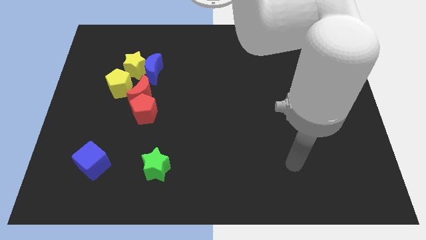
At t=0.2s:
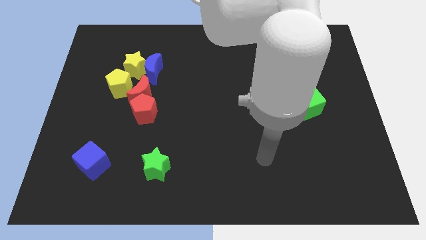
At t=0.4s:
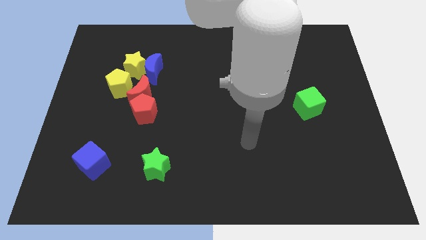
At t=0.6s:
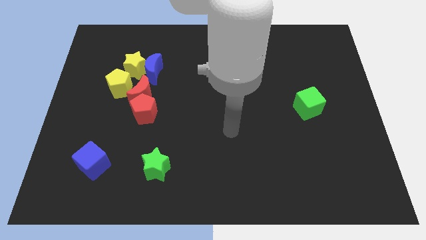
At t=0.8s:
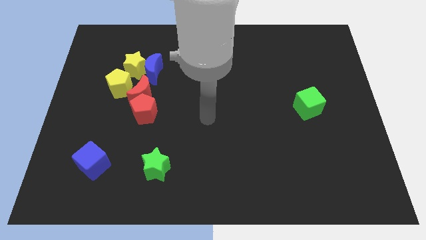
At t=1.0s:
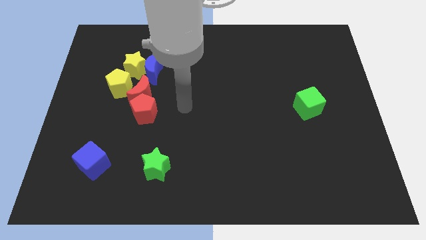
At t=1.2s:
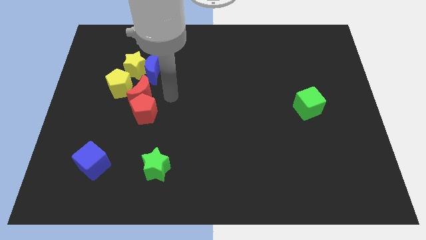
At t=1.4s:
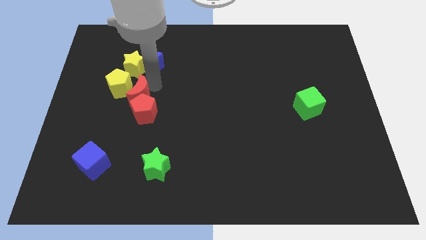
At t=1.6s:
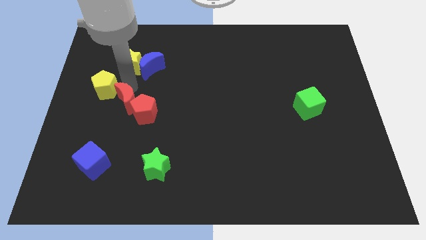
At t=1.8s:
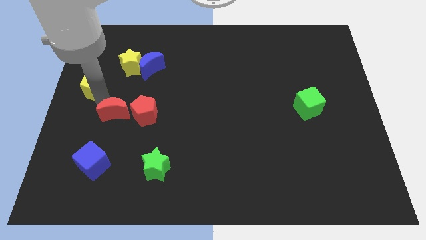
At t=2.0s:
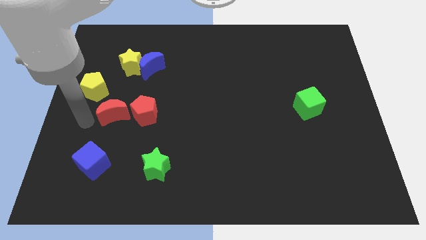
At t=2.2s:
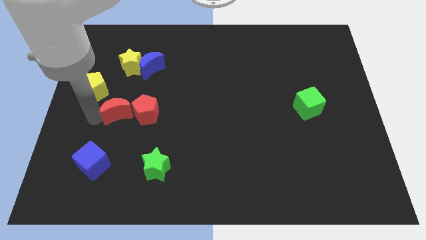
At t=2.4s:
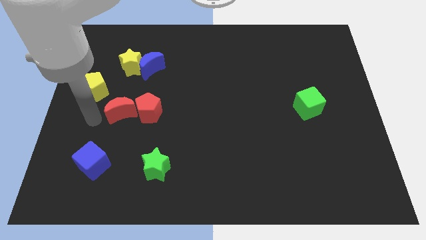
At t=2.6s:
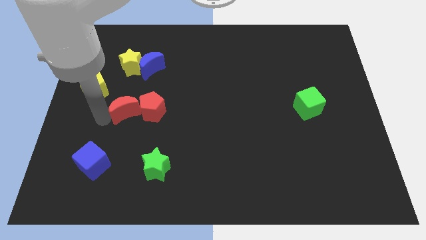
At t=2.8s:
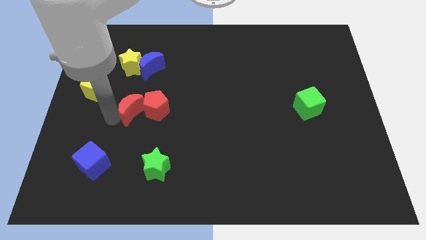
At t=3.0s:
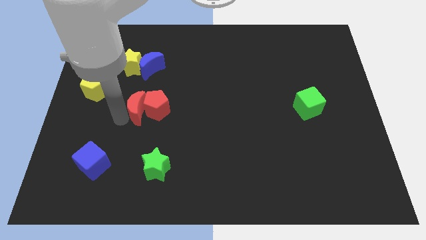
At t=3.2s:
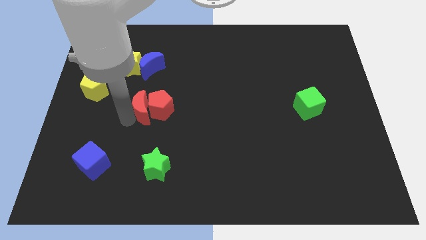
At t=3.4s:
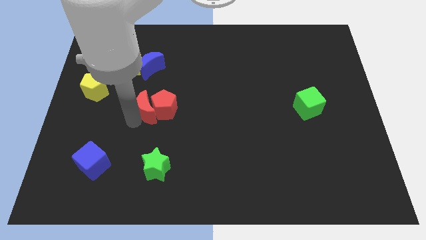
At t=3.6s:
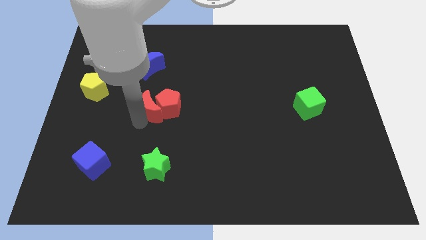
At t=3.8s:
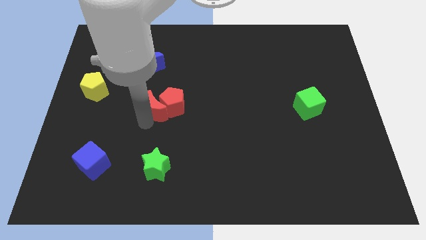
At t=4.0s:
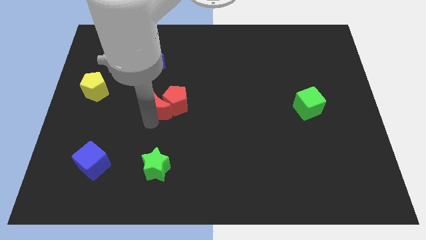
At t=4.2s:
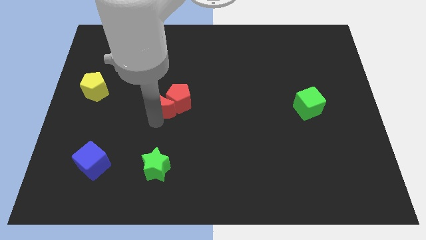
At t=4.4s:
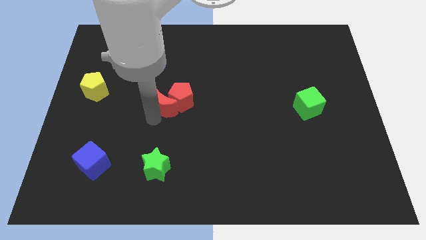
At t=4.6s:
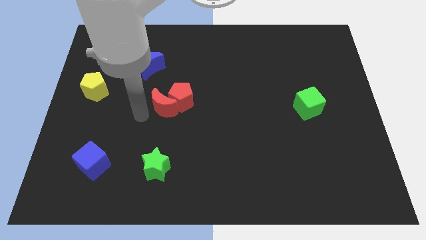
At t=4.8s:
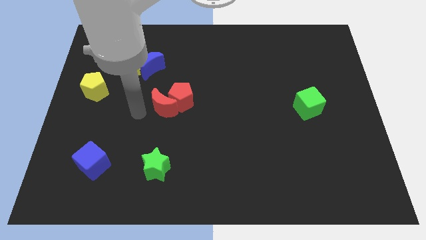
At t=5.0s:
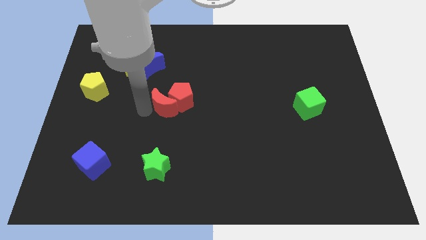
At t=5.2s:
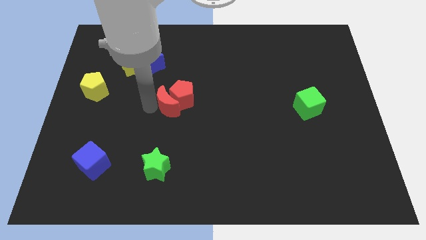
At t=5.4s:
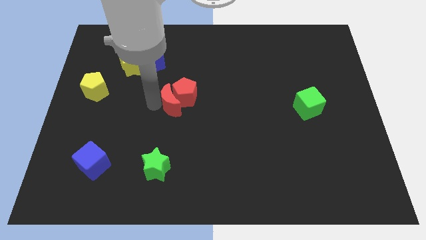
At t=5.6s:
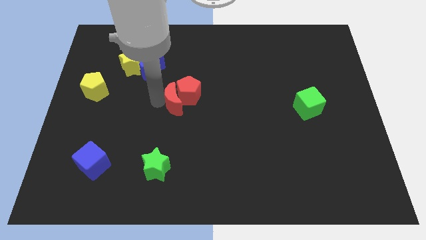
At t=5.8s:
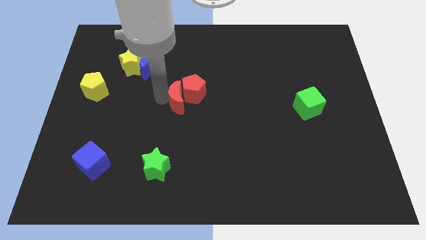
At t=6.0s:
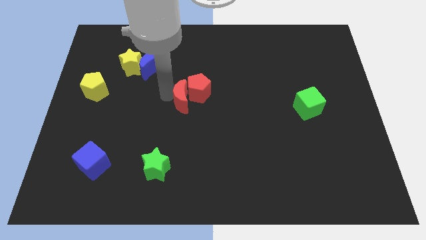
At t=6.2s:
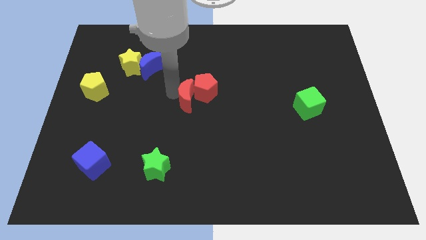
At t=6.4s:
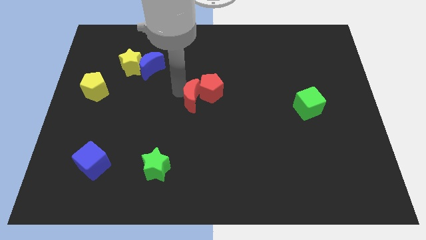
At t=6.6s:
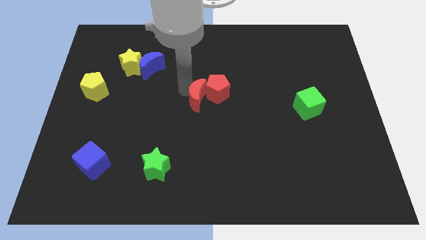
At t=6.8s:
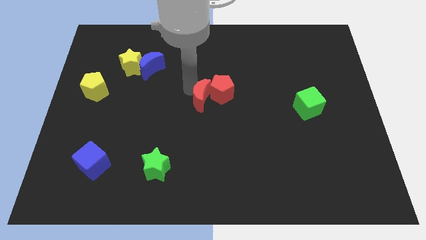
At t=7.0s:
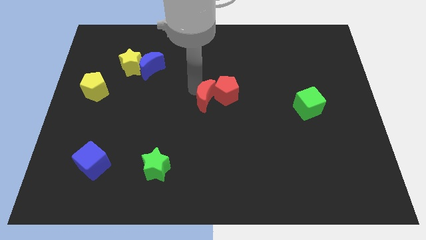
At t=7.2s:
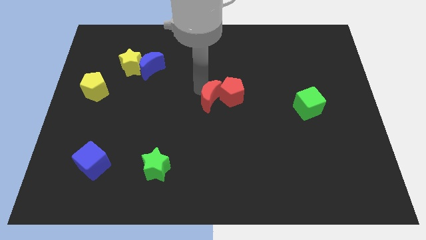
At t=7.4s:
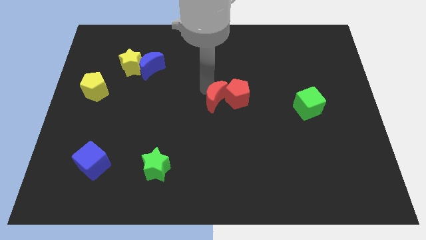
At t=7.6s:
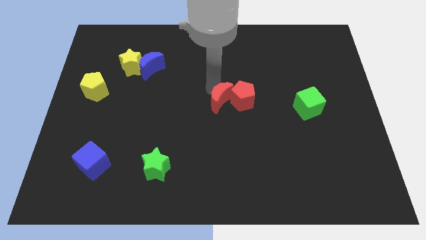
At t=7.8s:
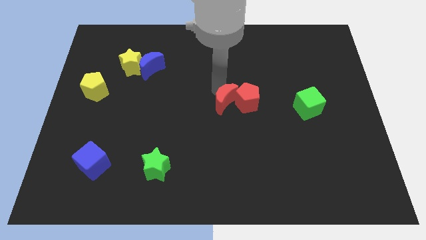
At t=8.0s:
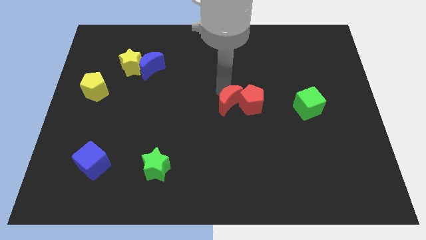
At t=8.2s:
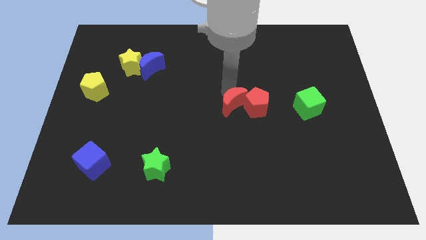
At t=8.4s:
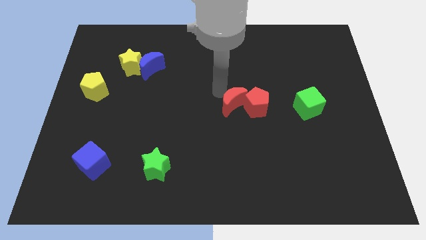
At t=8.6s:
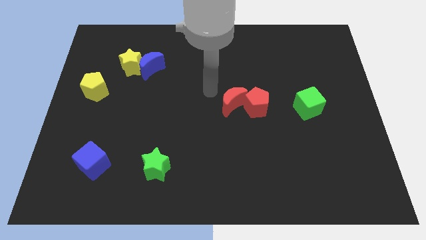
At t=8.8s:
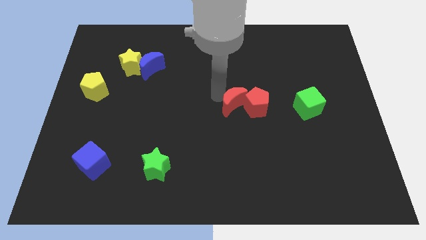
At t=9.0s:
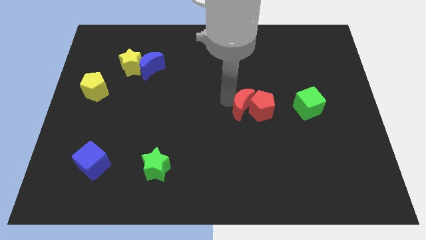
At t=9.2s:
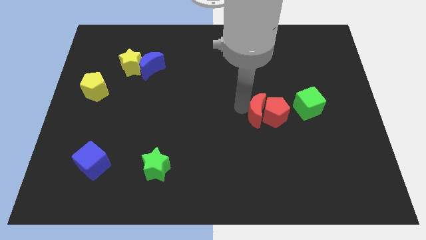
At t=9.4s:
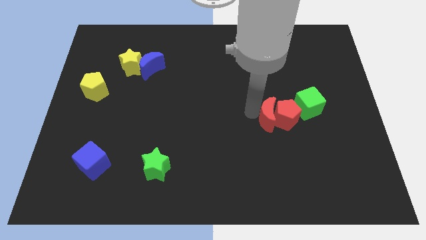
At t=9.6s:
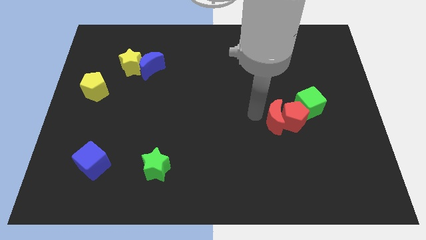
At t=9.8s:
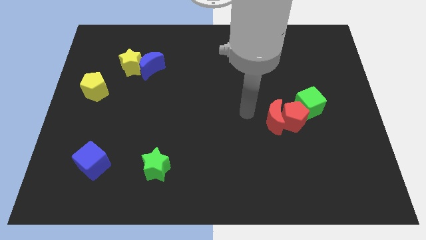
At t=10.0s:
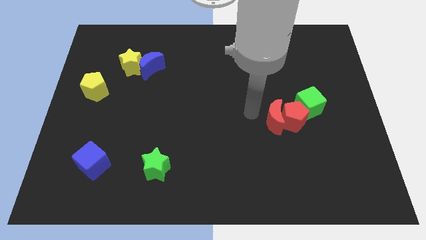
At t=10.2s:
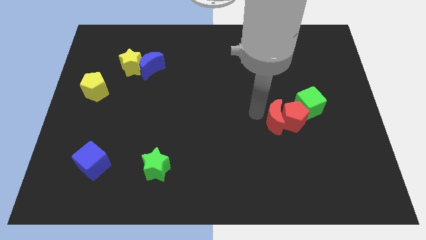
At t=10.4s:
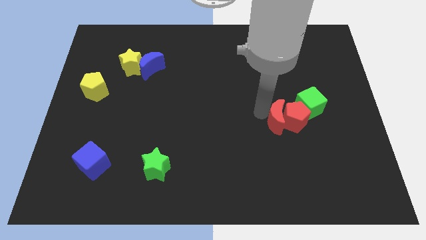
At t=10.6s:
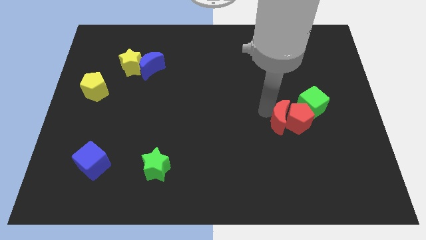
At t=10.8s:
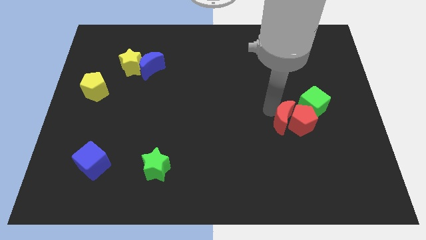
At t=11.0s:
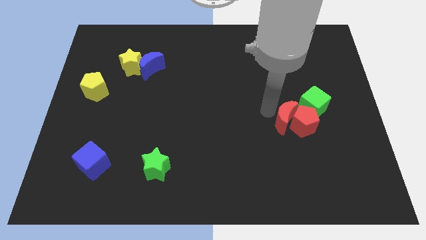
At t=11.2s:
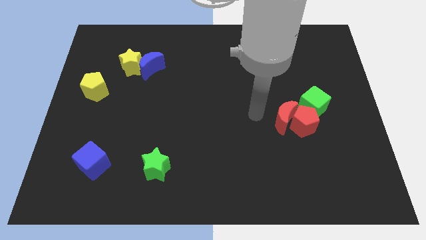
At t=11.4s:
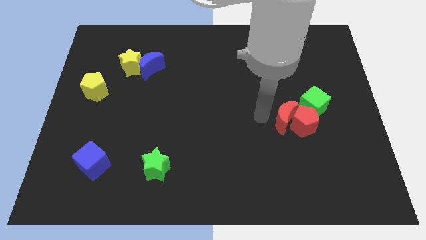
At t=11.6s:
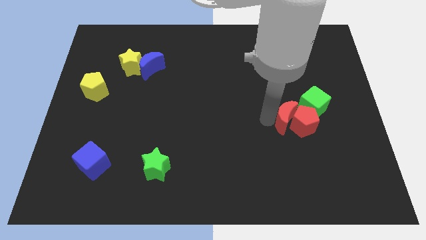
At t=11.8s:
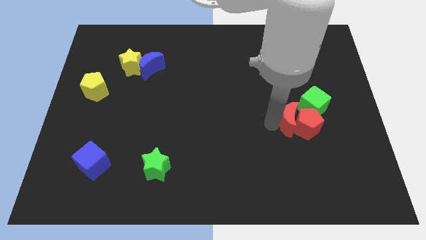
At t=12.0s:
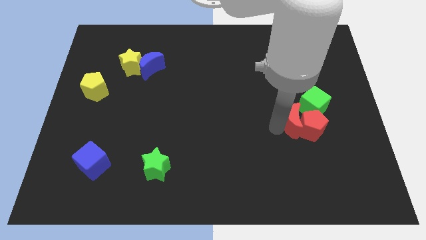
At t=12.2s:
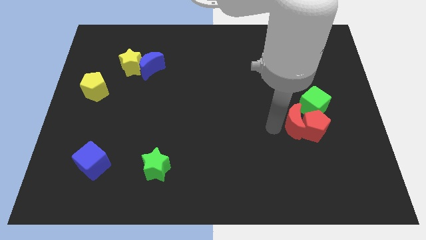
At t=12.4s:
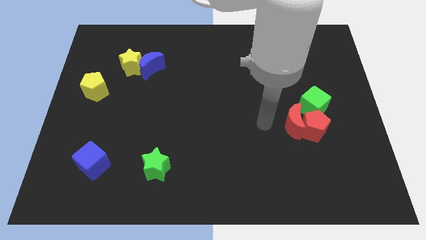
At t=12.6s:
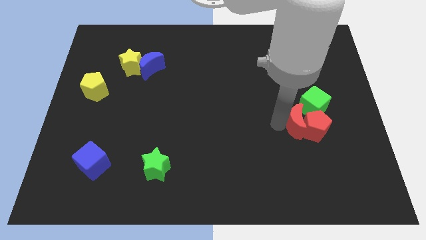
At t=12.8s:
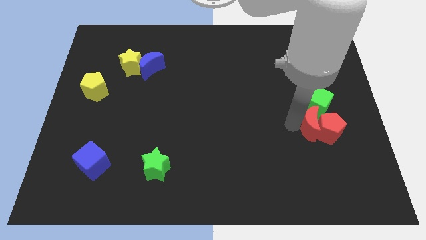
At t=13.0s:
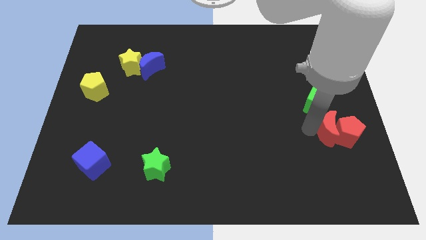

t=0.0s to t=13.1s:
push the red moon to the bottom right of the green cube

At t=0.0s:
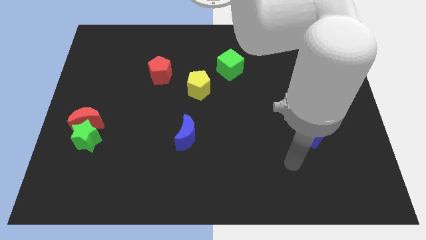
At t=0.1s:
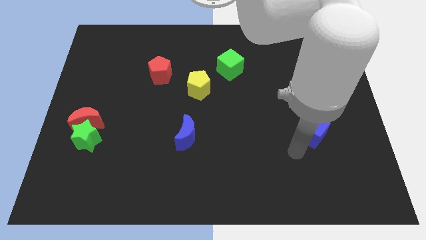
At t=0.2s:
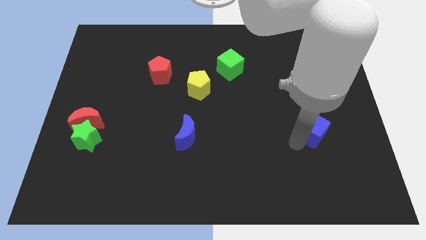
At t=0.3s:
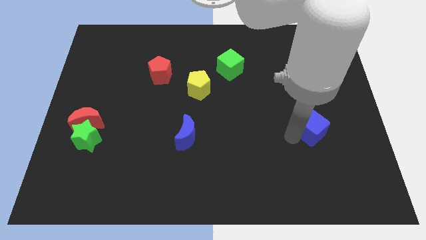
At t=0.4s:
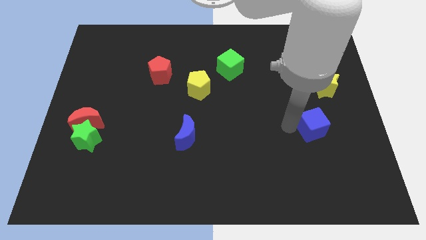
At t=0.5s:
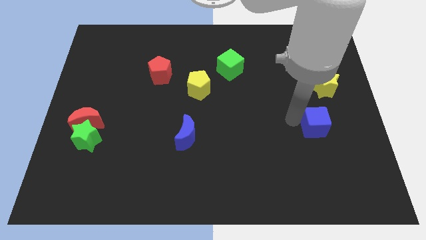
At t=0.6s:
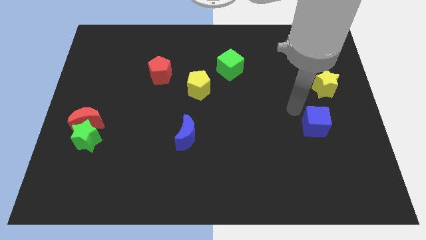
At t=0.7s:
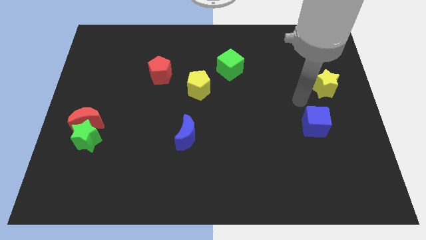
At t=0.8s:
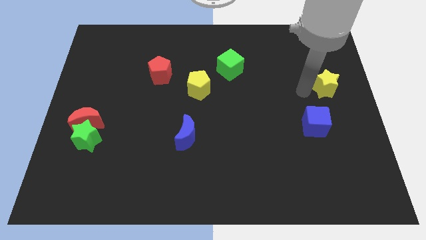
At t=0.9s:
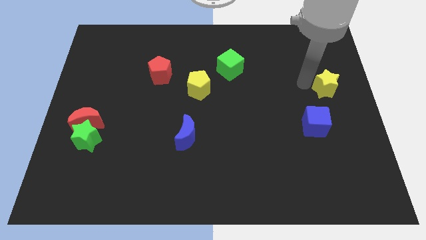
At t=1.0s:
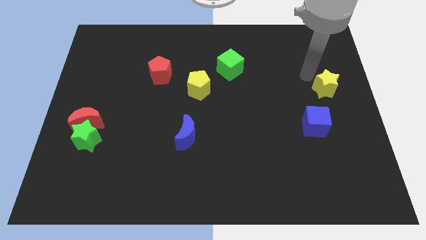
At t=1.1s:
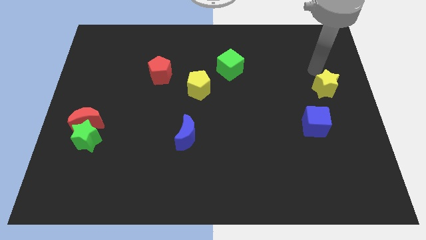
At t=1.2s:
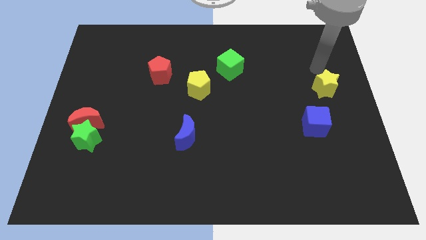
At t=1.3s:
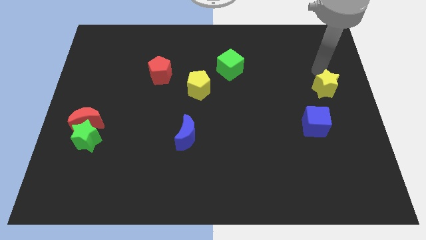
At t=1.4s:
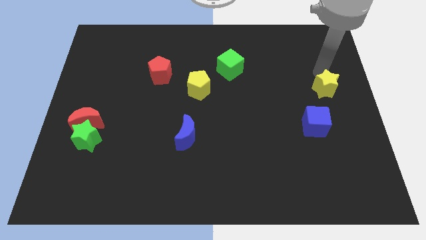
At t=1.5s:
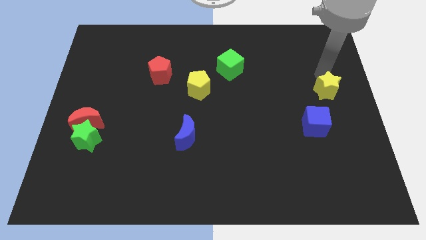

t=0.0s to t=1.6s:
put the yellow star diagonally up and to the right of the blue cube
